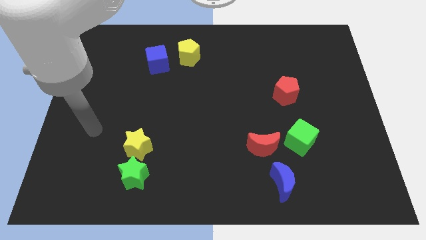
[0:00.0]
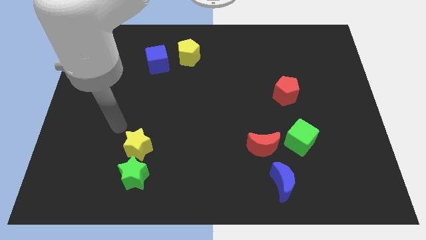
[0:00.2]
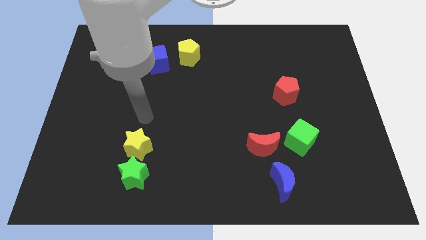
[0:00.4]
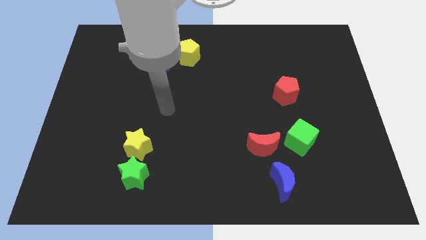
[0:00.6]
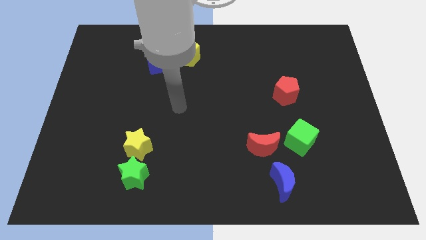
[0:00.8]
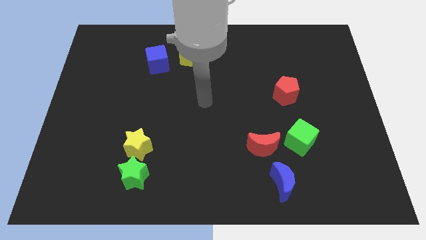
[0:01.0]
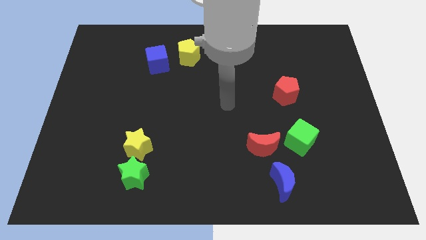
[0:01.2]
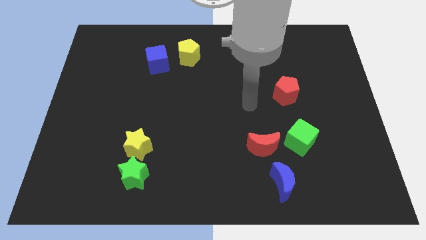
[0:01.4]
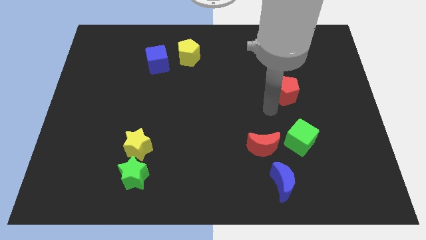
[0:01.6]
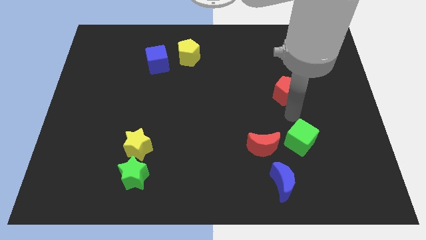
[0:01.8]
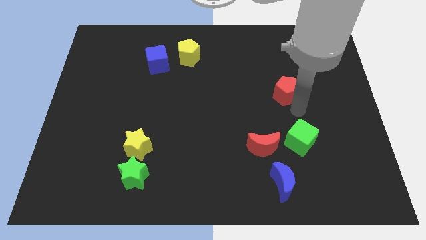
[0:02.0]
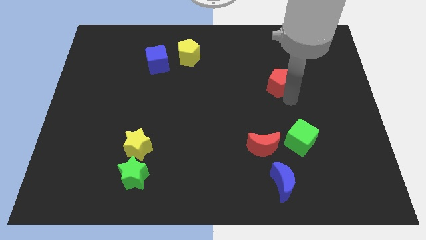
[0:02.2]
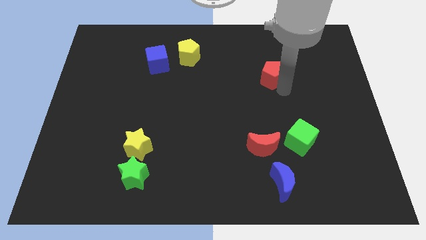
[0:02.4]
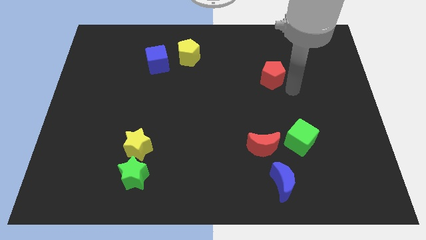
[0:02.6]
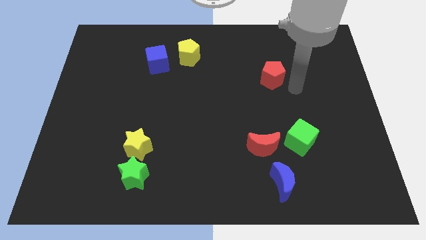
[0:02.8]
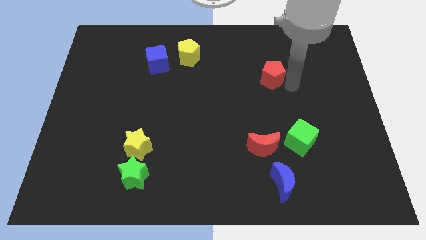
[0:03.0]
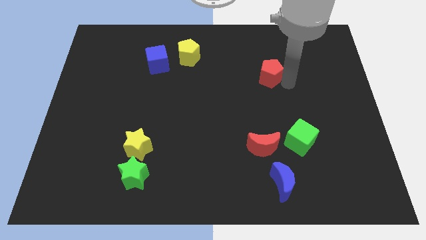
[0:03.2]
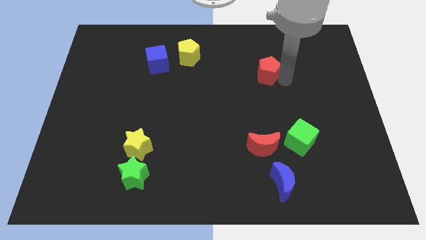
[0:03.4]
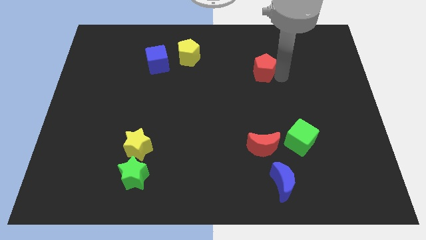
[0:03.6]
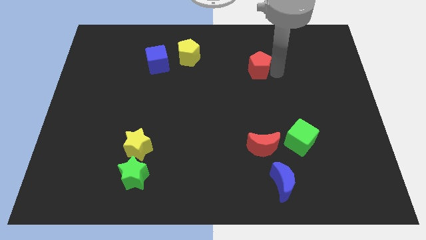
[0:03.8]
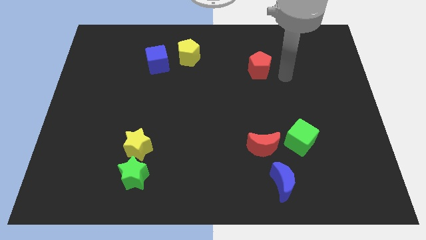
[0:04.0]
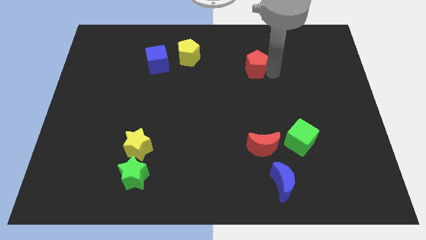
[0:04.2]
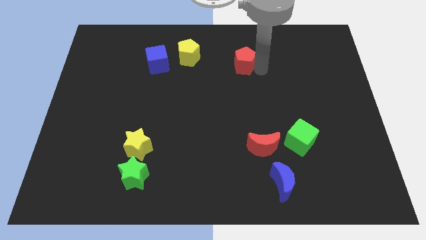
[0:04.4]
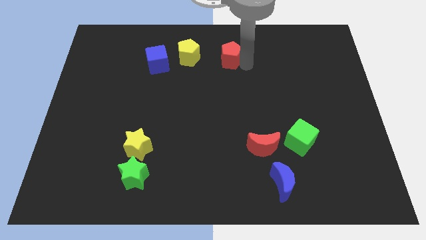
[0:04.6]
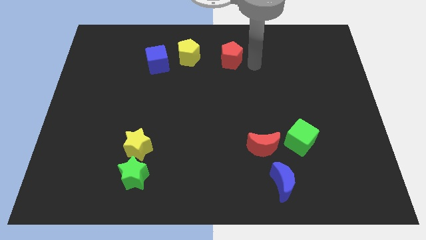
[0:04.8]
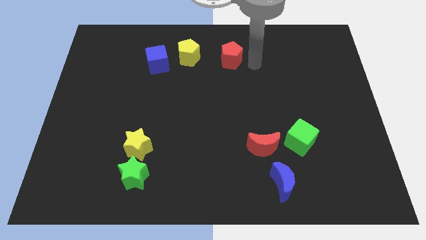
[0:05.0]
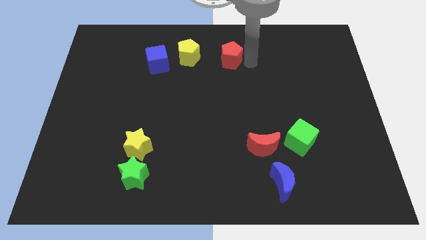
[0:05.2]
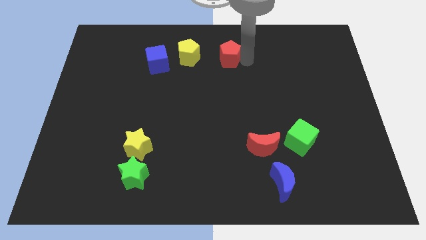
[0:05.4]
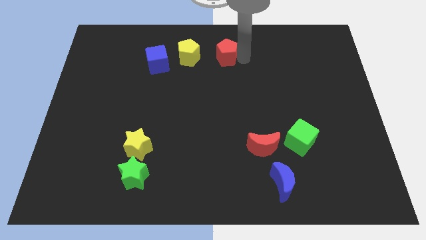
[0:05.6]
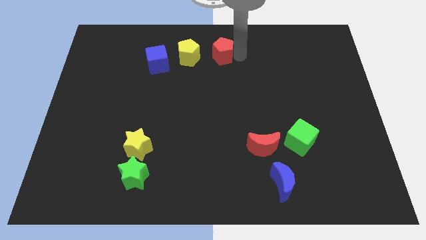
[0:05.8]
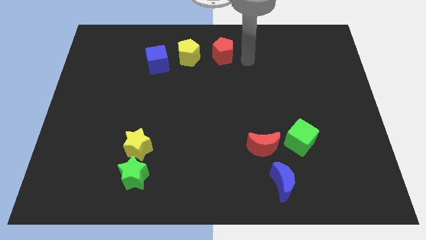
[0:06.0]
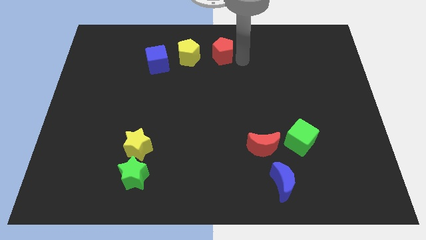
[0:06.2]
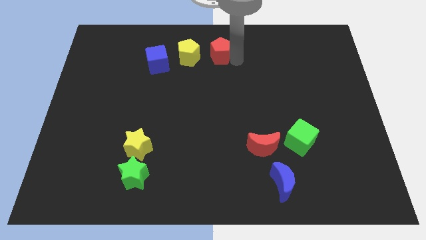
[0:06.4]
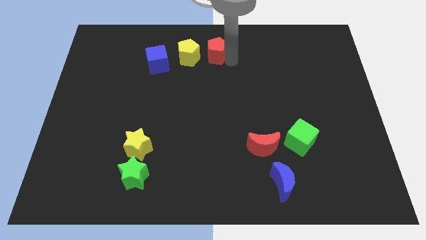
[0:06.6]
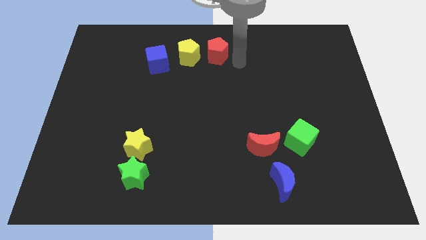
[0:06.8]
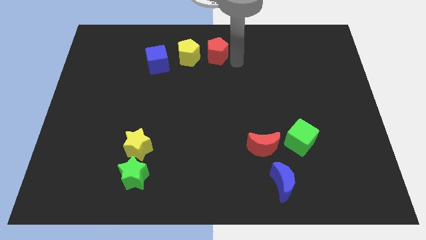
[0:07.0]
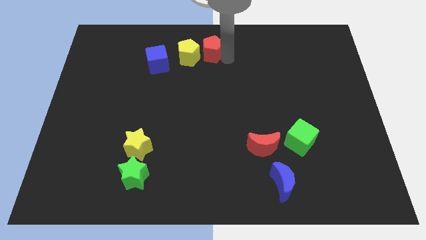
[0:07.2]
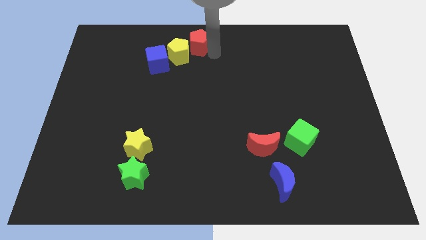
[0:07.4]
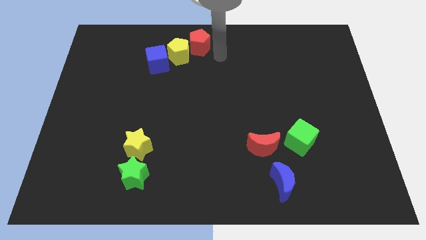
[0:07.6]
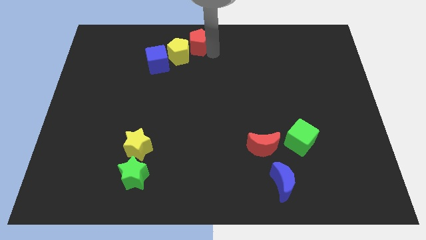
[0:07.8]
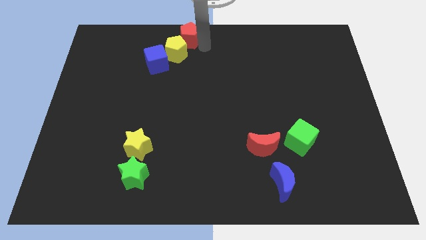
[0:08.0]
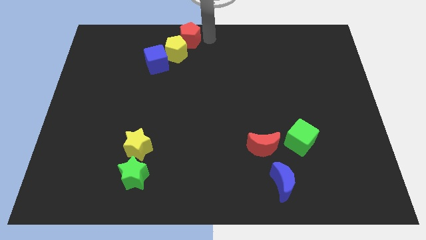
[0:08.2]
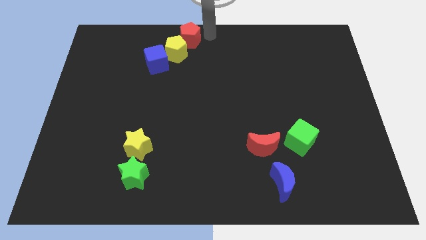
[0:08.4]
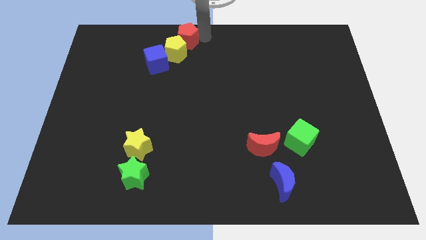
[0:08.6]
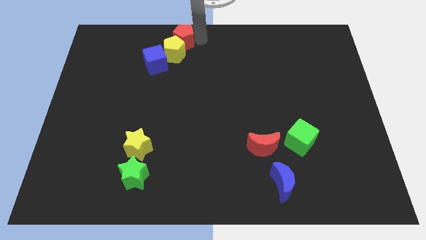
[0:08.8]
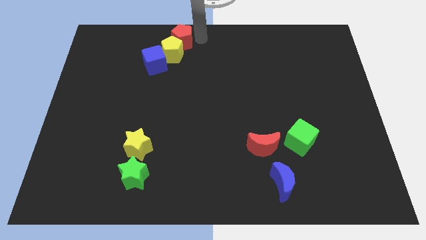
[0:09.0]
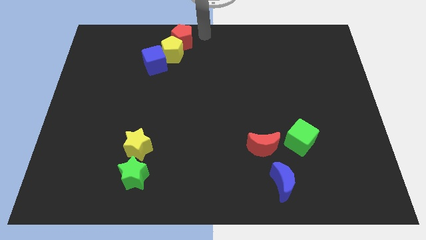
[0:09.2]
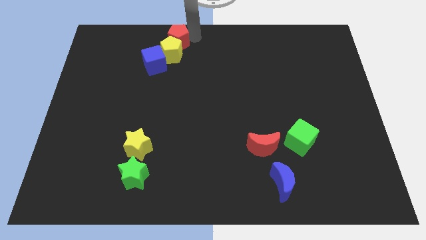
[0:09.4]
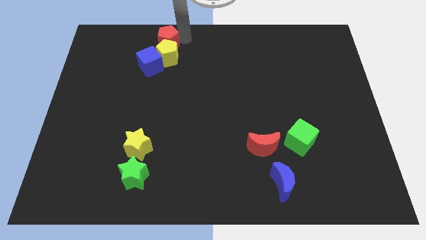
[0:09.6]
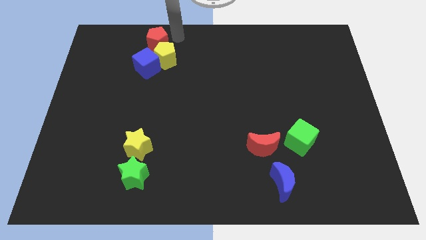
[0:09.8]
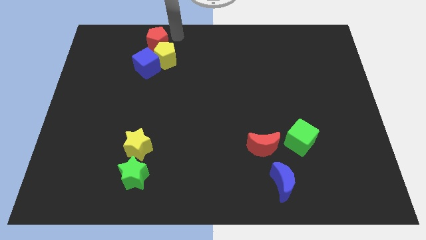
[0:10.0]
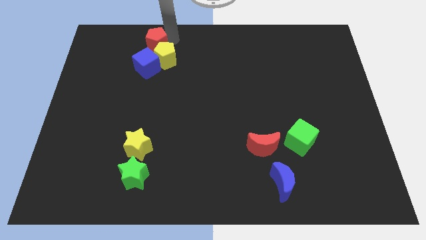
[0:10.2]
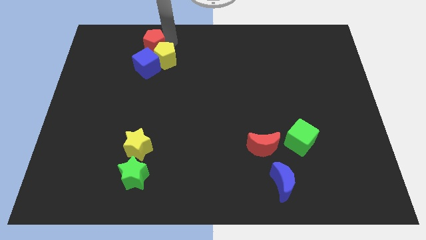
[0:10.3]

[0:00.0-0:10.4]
move the red pentagon left of the yellow pentagon

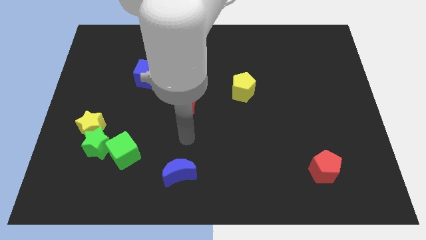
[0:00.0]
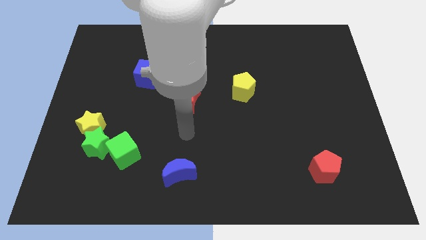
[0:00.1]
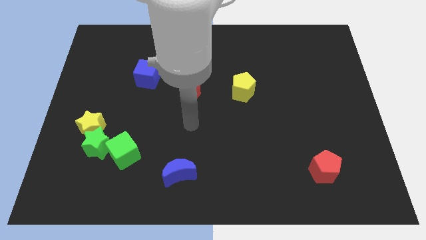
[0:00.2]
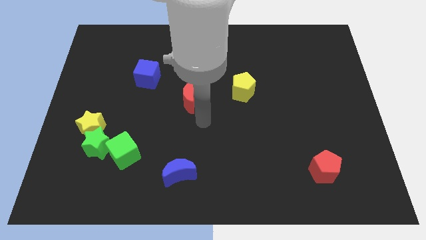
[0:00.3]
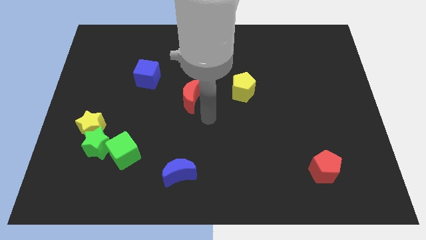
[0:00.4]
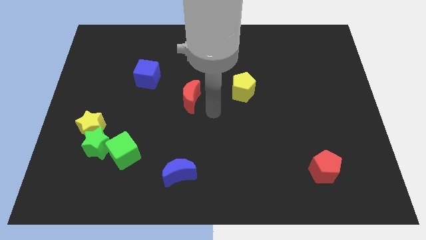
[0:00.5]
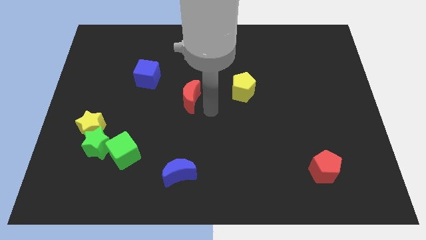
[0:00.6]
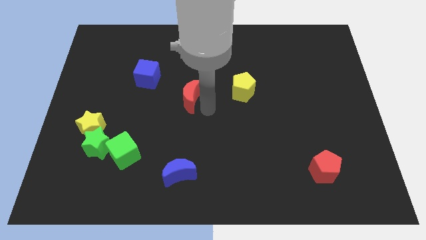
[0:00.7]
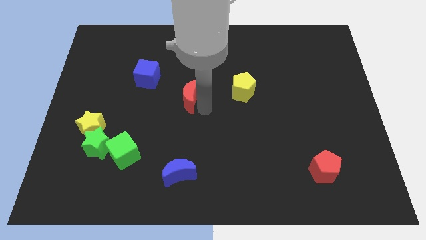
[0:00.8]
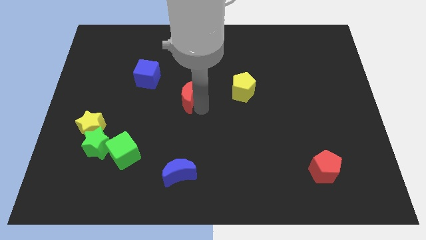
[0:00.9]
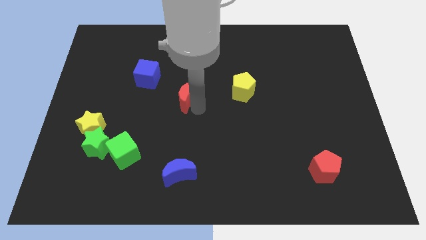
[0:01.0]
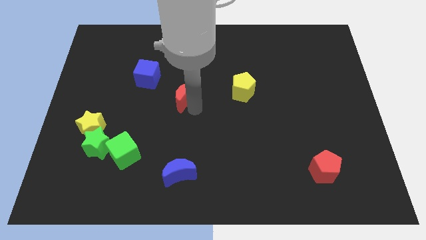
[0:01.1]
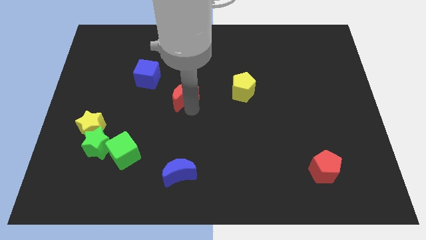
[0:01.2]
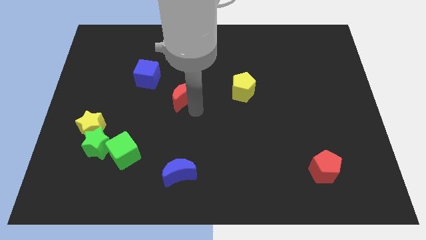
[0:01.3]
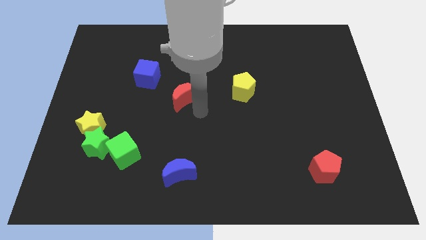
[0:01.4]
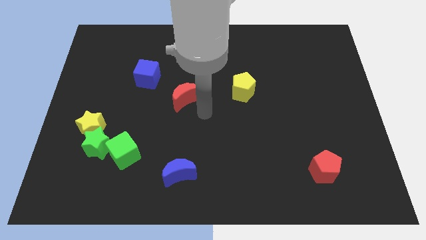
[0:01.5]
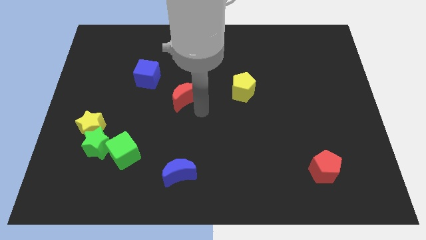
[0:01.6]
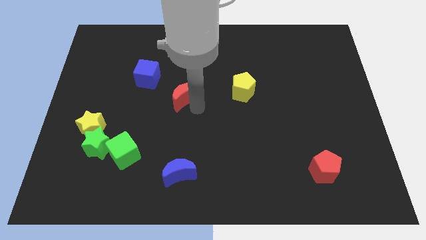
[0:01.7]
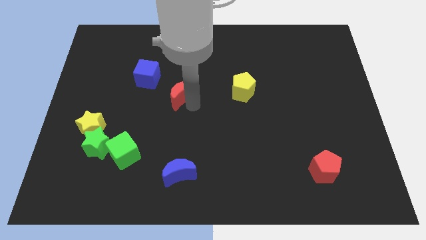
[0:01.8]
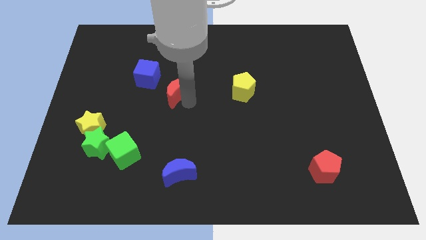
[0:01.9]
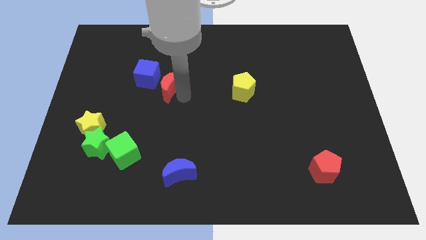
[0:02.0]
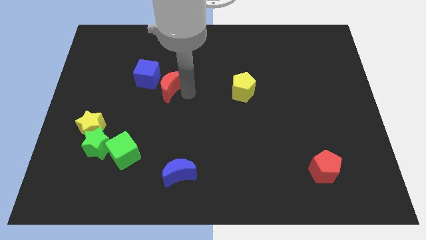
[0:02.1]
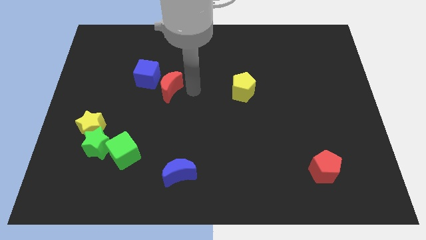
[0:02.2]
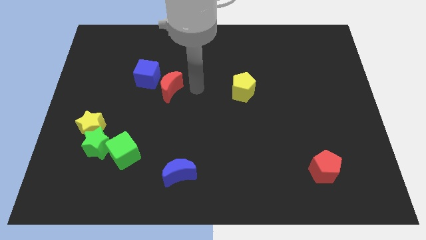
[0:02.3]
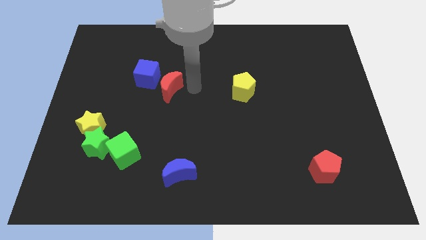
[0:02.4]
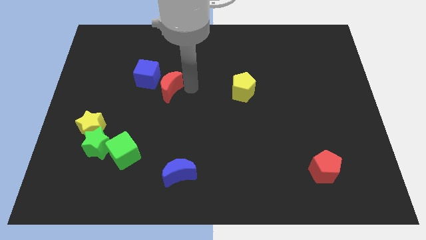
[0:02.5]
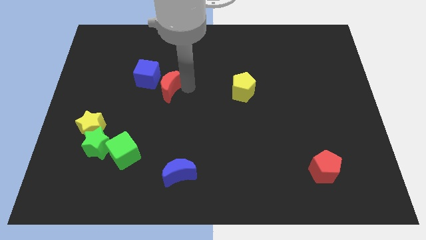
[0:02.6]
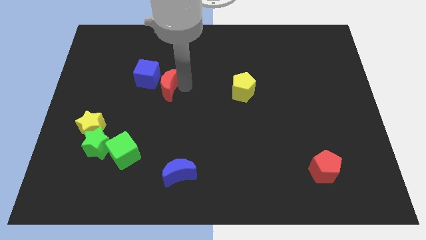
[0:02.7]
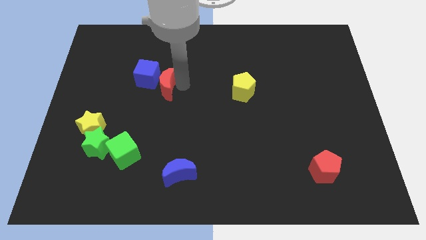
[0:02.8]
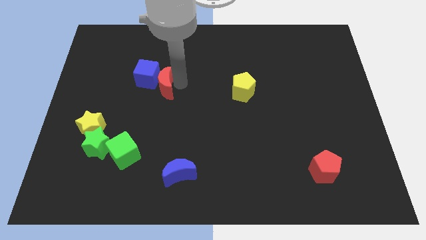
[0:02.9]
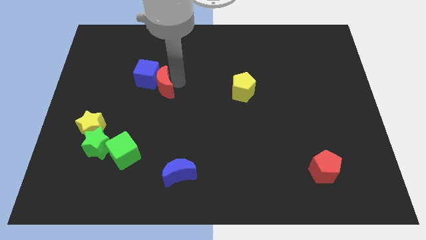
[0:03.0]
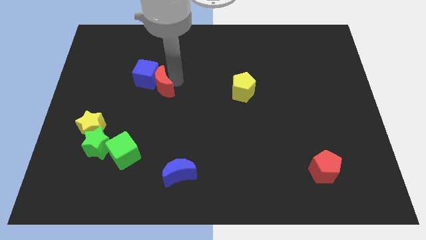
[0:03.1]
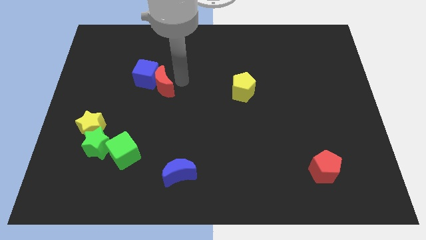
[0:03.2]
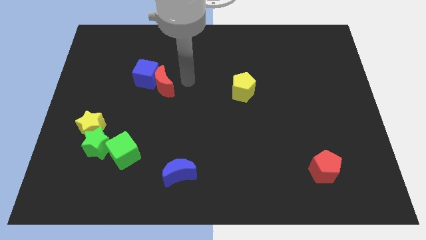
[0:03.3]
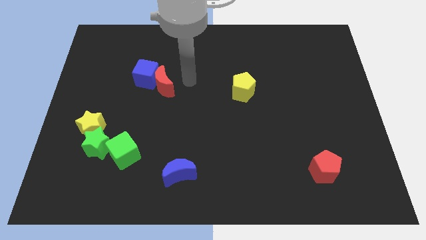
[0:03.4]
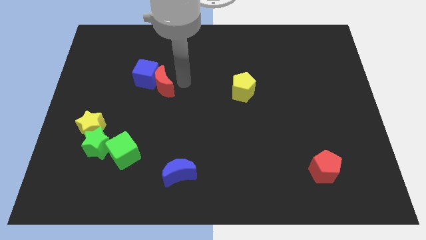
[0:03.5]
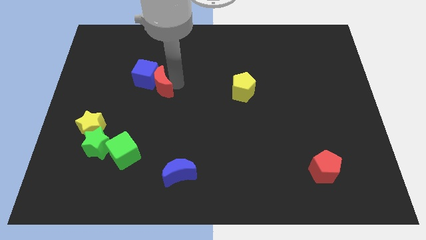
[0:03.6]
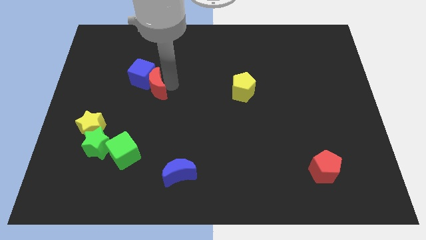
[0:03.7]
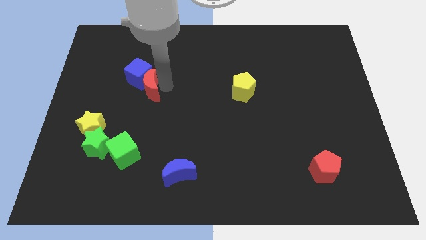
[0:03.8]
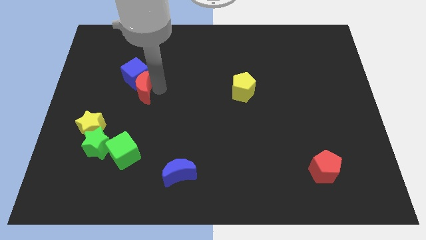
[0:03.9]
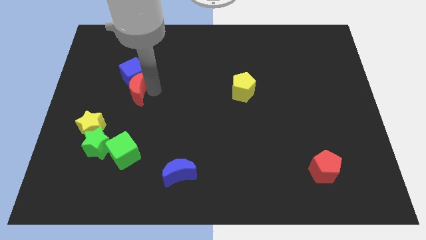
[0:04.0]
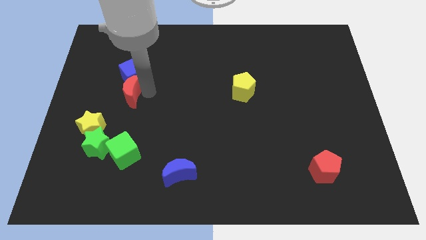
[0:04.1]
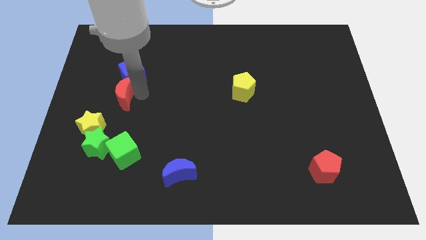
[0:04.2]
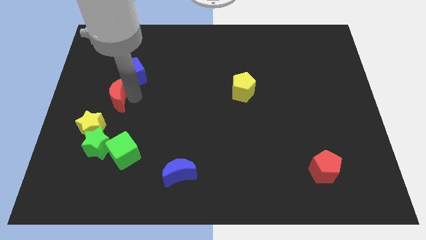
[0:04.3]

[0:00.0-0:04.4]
move the red moon above the yellow star
